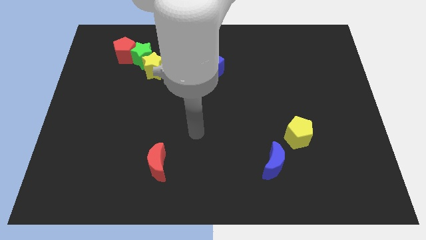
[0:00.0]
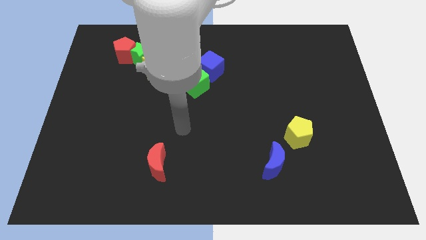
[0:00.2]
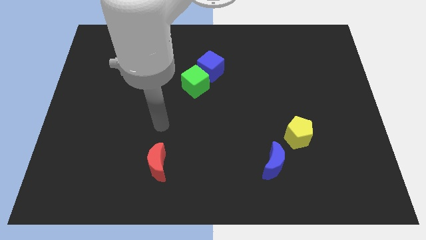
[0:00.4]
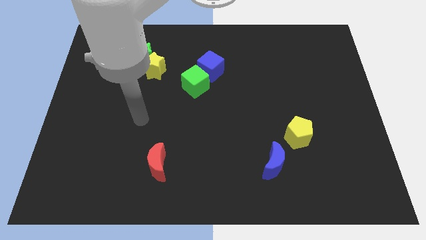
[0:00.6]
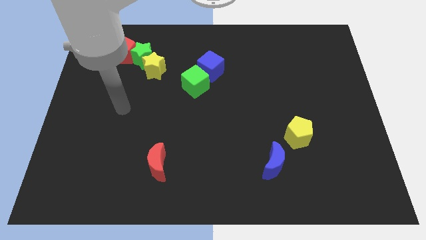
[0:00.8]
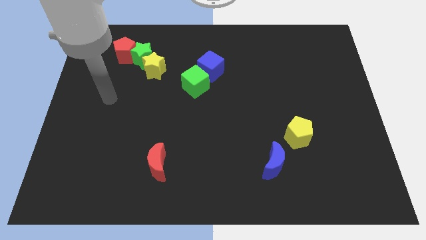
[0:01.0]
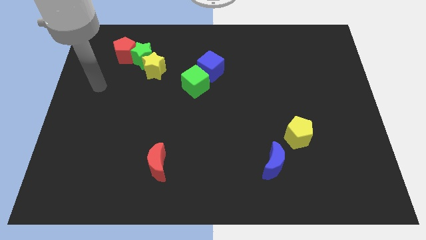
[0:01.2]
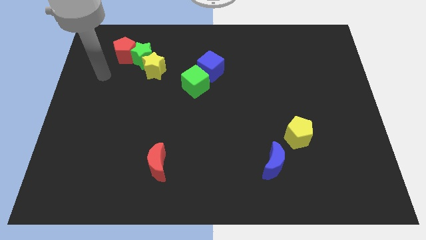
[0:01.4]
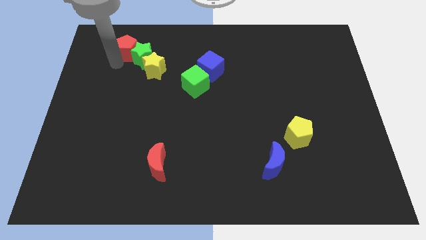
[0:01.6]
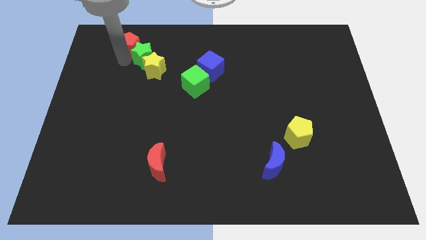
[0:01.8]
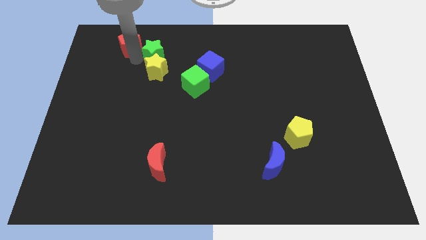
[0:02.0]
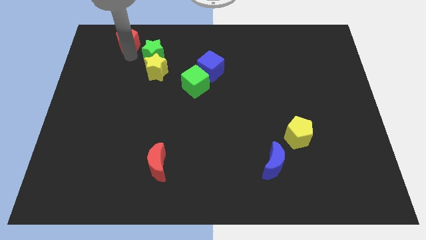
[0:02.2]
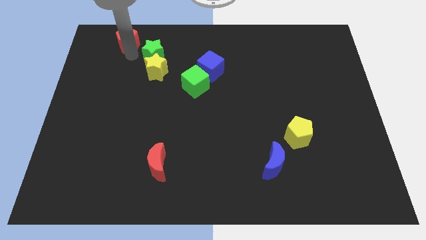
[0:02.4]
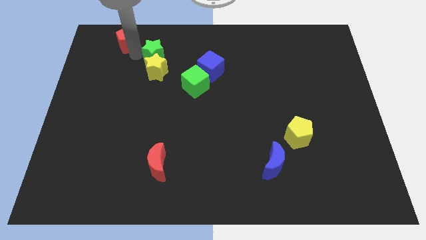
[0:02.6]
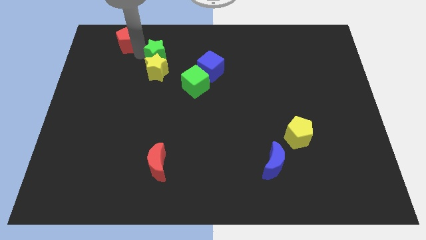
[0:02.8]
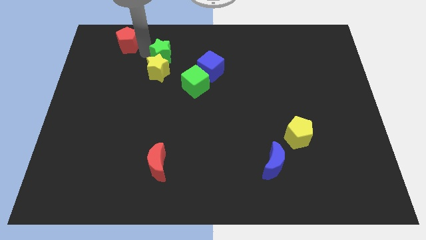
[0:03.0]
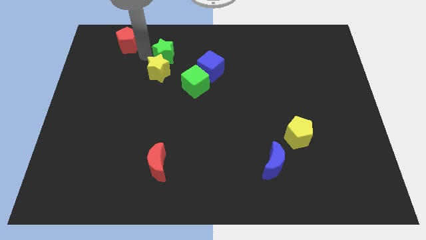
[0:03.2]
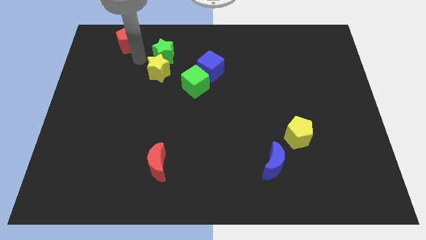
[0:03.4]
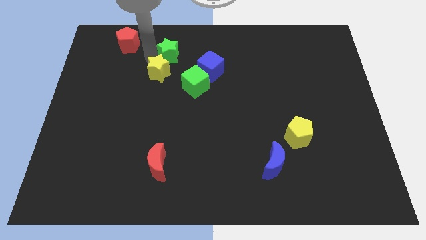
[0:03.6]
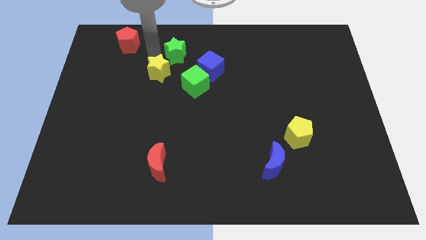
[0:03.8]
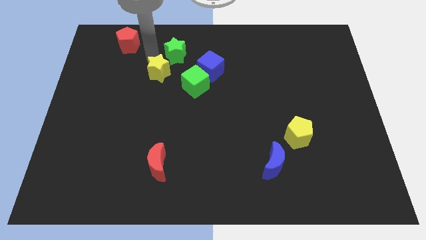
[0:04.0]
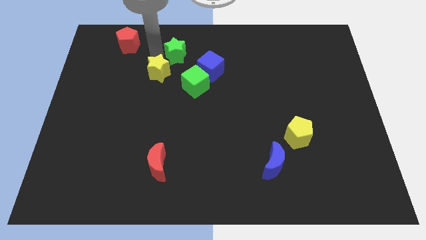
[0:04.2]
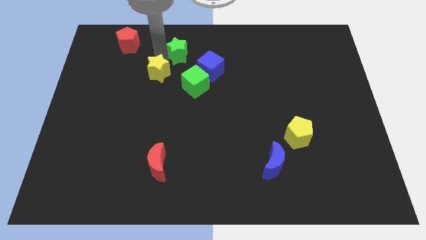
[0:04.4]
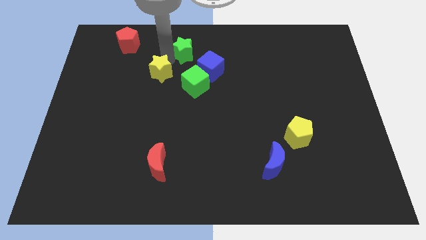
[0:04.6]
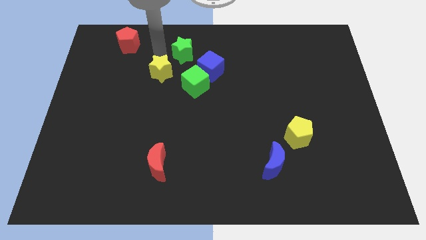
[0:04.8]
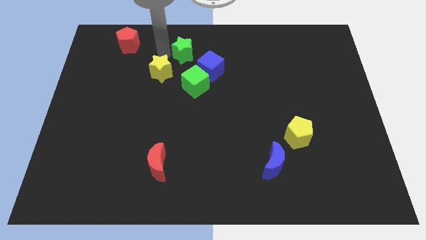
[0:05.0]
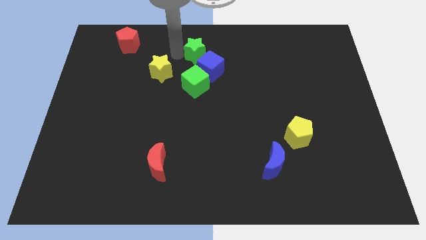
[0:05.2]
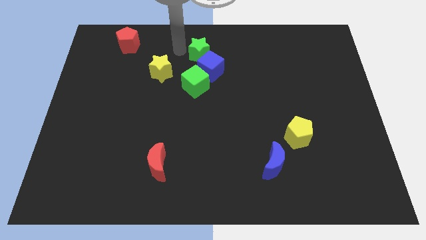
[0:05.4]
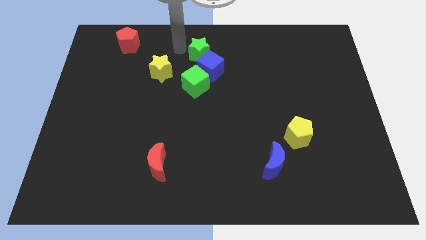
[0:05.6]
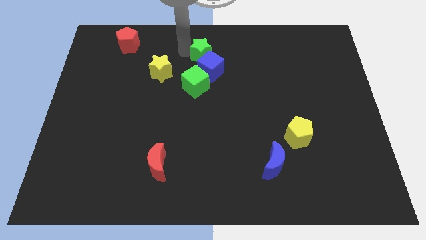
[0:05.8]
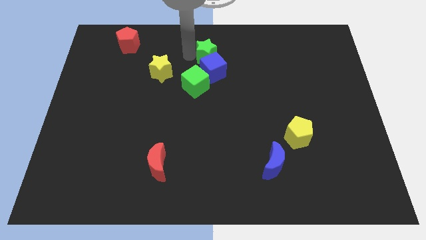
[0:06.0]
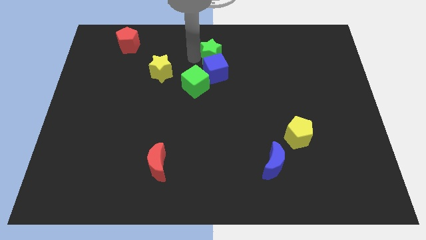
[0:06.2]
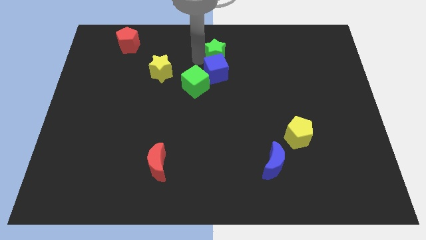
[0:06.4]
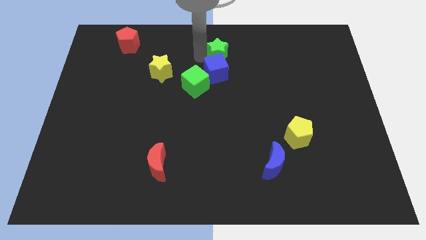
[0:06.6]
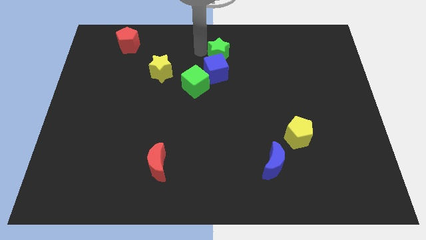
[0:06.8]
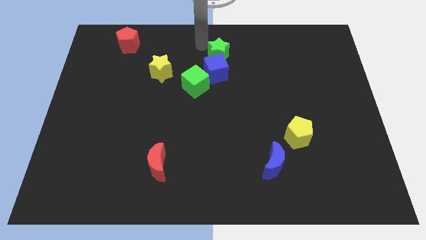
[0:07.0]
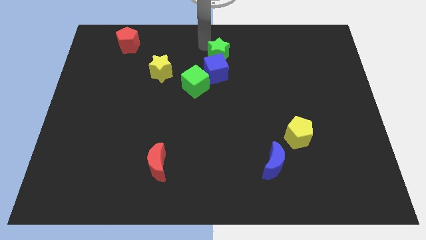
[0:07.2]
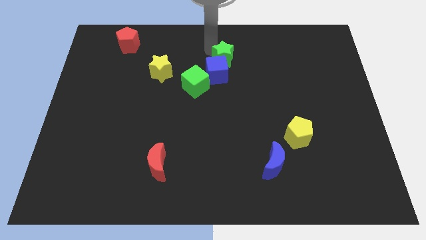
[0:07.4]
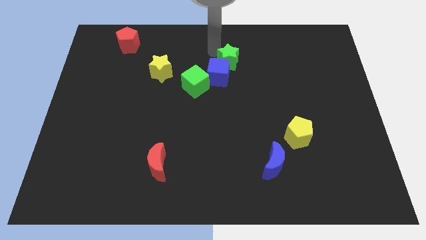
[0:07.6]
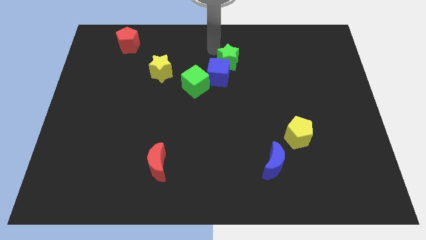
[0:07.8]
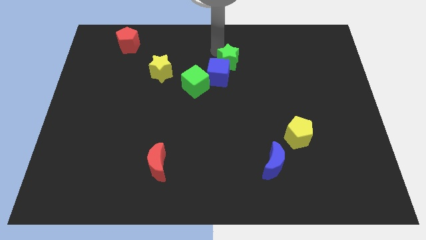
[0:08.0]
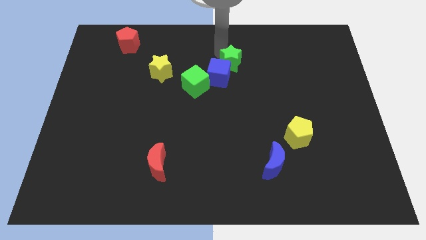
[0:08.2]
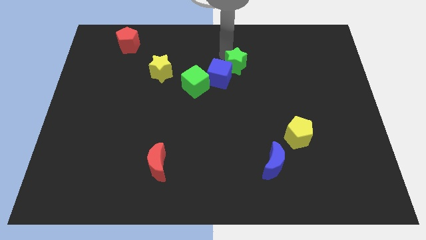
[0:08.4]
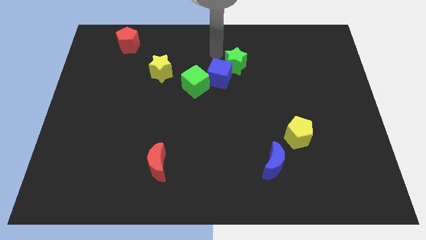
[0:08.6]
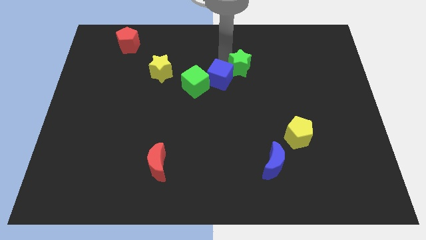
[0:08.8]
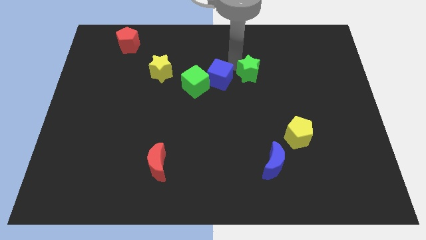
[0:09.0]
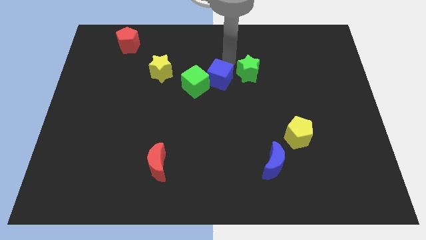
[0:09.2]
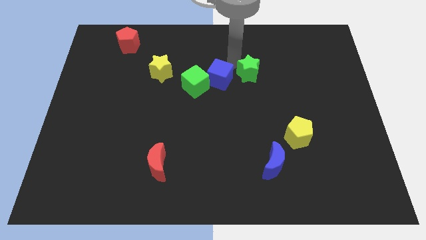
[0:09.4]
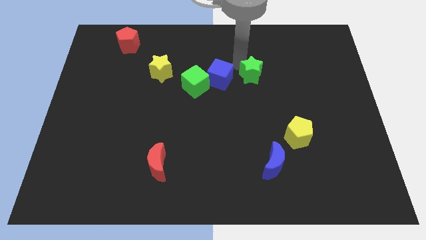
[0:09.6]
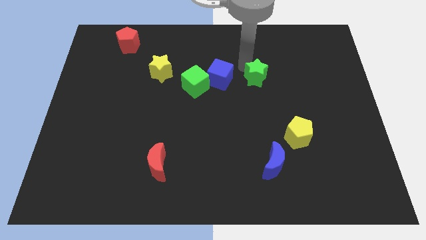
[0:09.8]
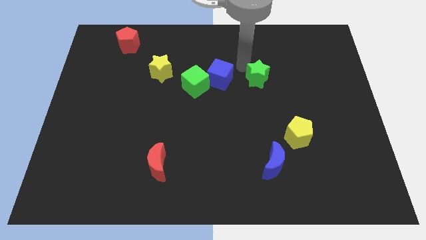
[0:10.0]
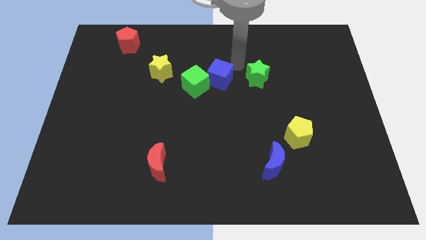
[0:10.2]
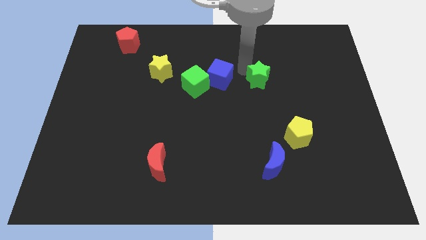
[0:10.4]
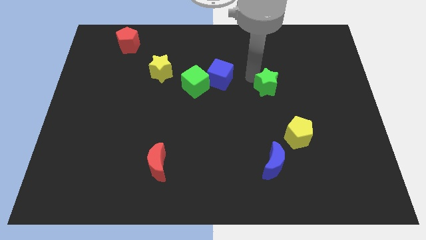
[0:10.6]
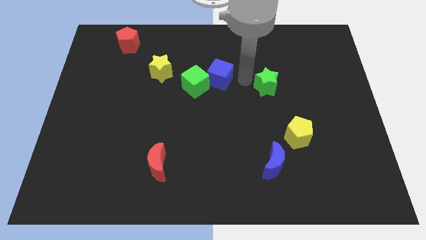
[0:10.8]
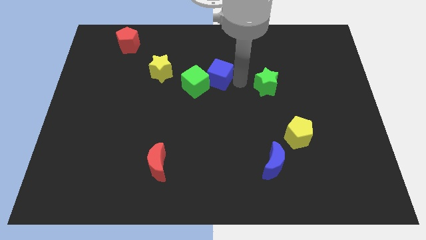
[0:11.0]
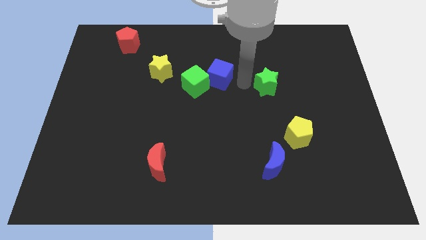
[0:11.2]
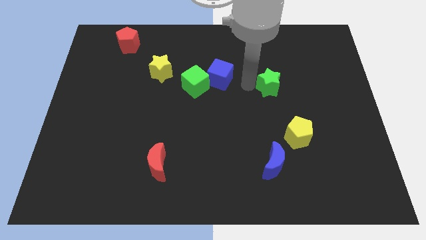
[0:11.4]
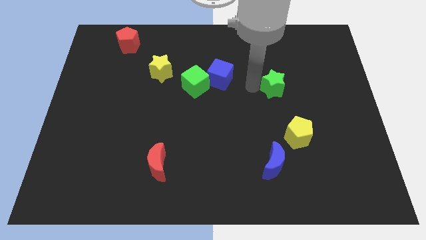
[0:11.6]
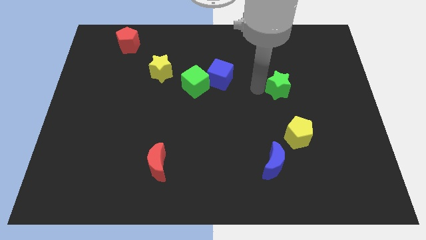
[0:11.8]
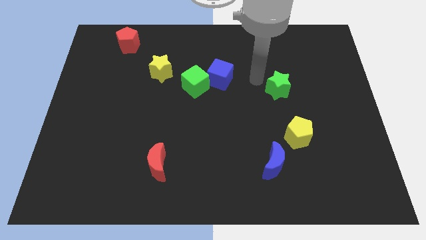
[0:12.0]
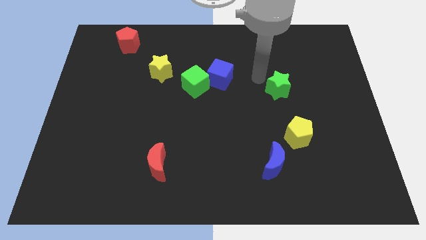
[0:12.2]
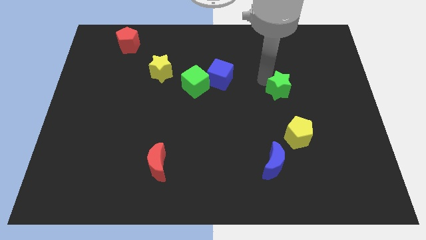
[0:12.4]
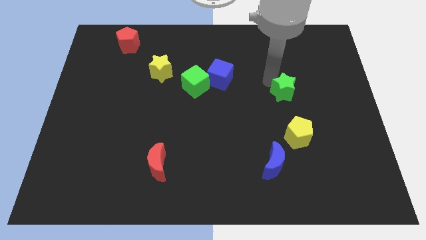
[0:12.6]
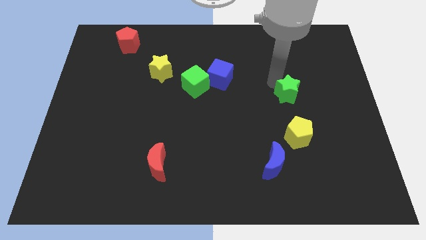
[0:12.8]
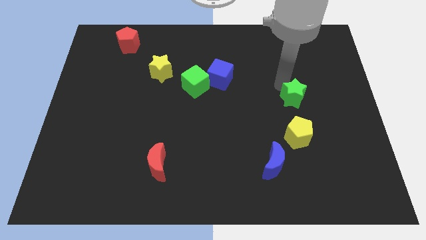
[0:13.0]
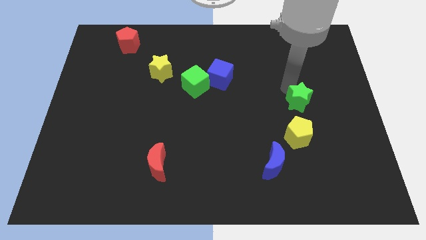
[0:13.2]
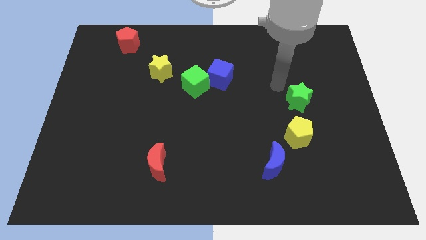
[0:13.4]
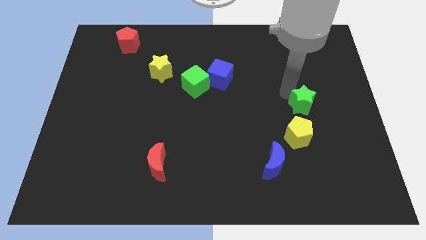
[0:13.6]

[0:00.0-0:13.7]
slide the green star to the top right side of the yellow pentagon

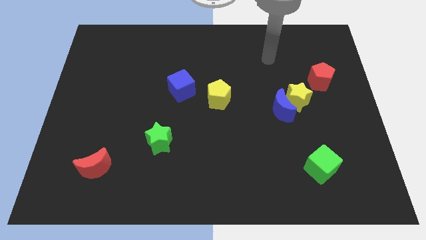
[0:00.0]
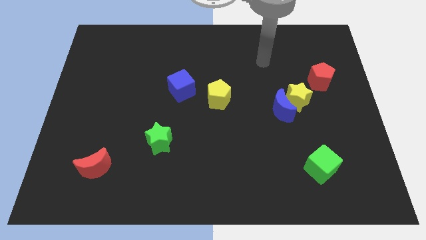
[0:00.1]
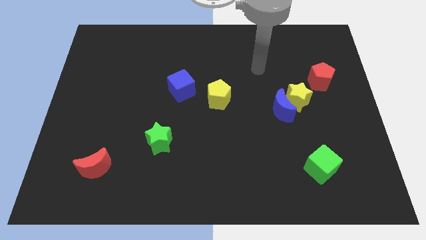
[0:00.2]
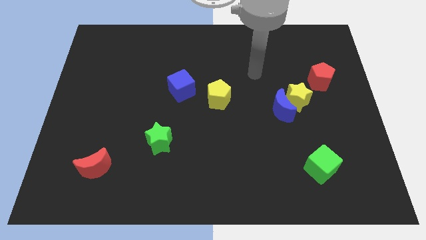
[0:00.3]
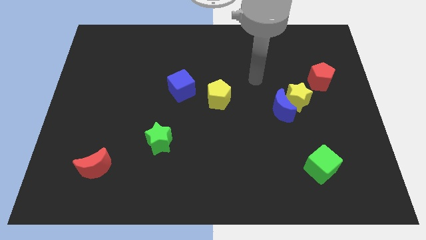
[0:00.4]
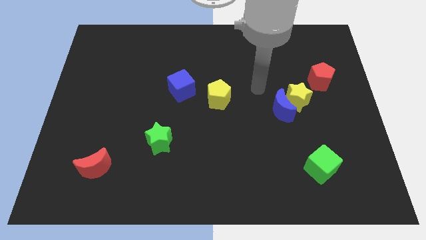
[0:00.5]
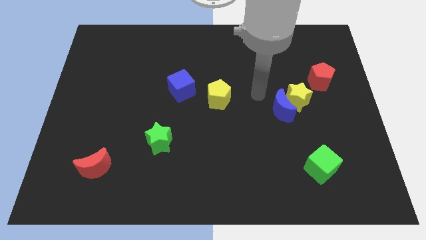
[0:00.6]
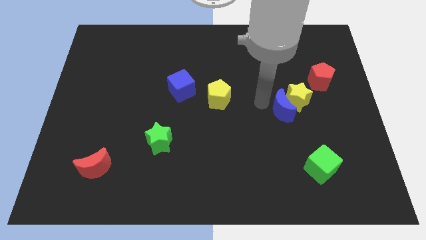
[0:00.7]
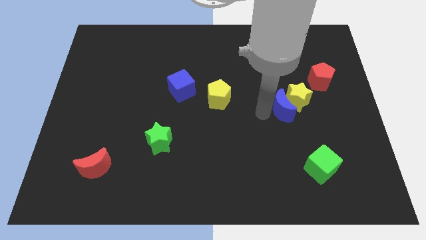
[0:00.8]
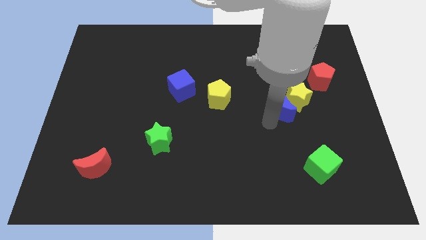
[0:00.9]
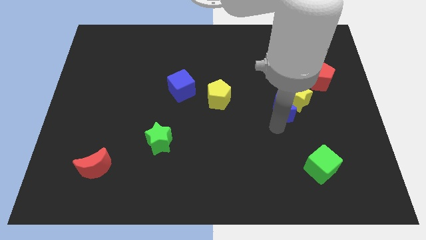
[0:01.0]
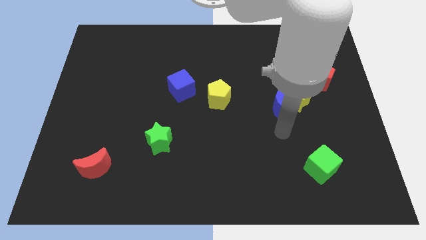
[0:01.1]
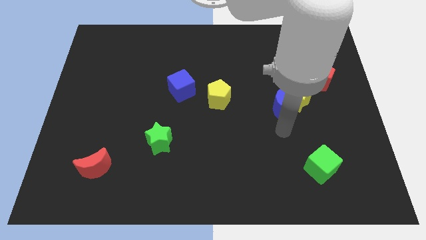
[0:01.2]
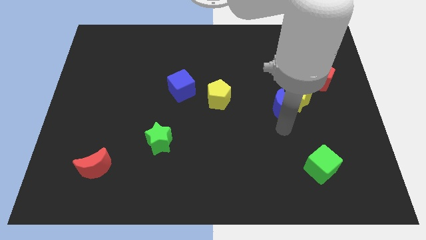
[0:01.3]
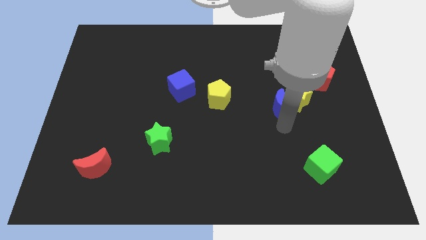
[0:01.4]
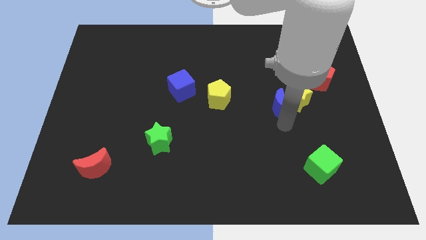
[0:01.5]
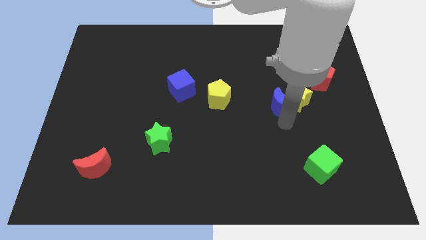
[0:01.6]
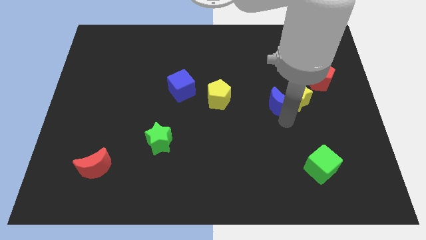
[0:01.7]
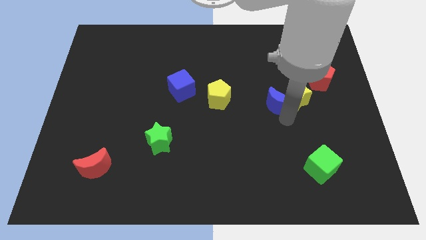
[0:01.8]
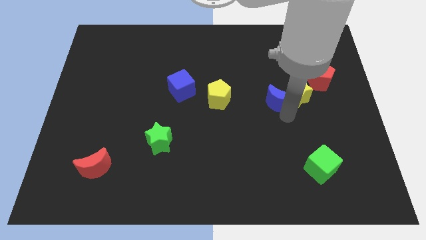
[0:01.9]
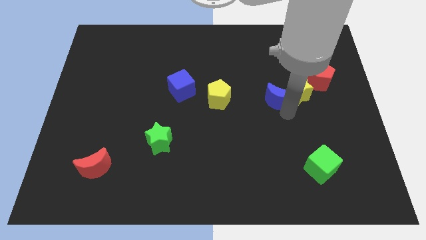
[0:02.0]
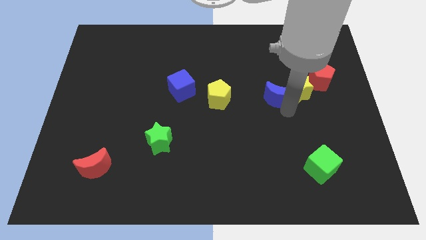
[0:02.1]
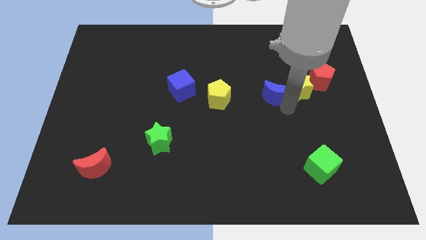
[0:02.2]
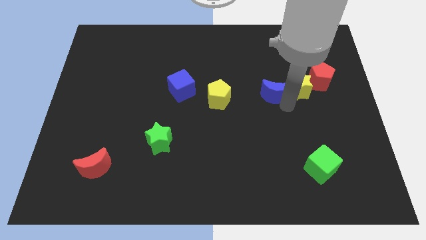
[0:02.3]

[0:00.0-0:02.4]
slide the blue moon left of the red pentagon
